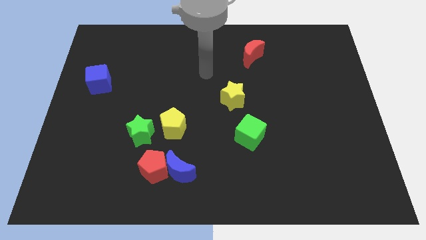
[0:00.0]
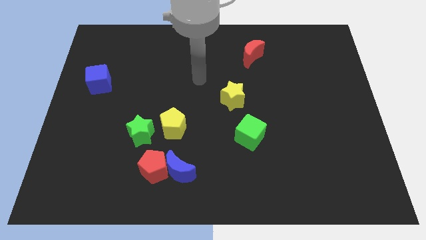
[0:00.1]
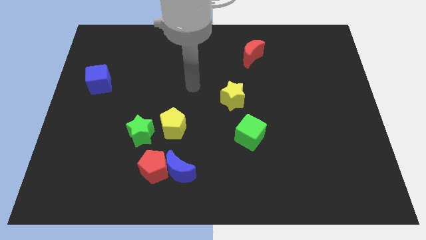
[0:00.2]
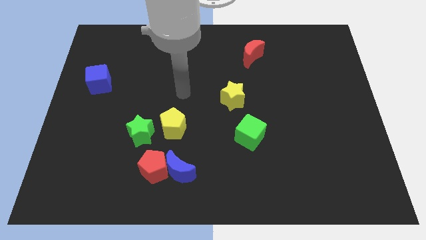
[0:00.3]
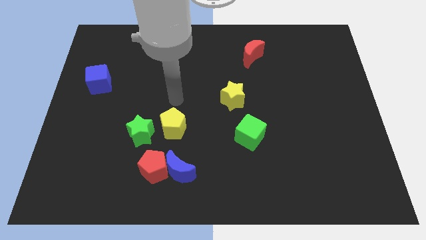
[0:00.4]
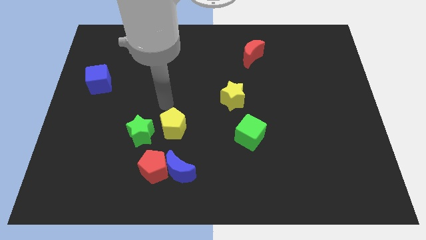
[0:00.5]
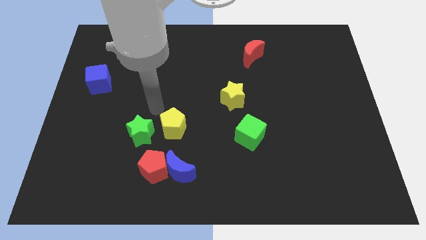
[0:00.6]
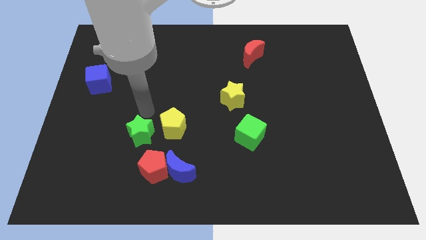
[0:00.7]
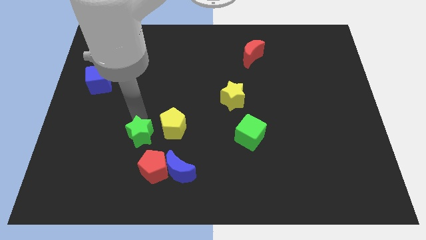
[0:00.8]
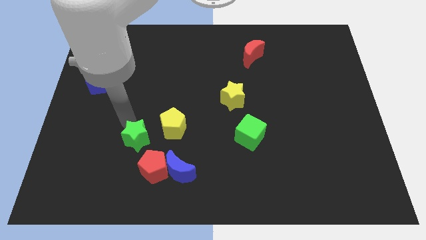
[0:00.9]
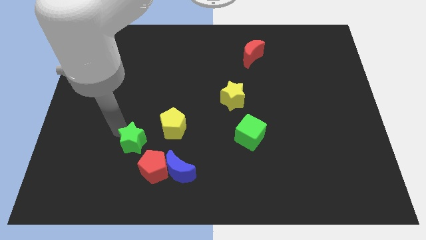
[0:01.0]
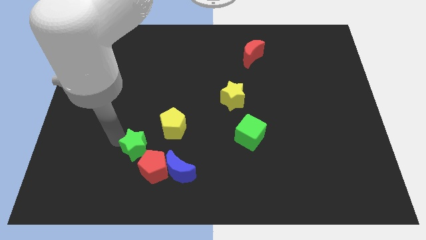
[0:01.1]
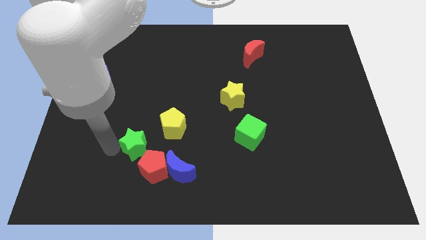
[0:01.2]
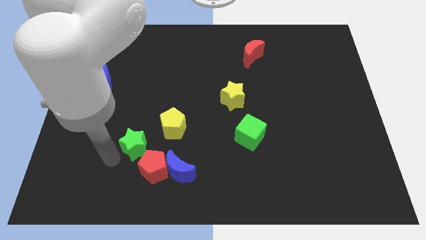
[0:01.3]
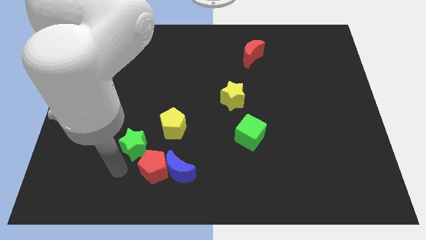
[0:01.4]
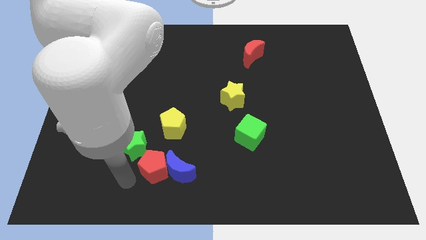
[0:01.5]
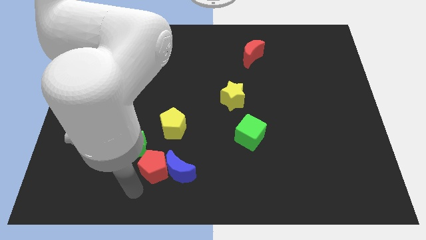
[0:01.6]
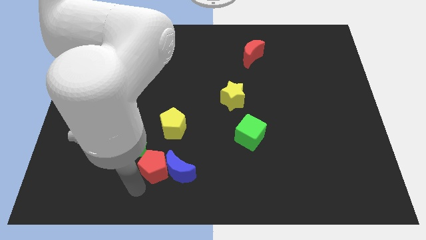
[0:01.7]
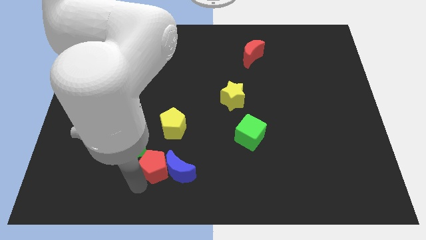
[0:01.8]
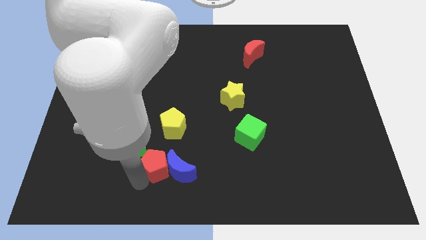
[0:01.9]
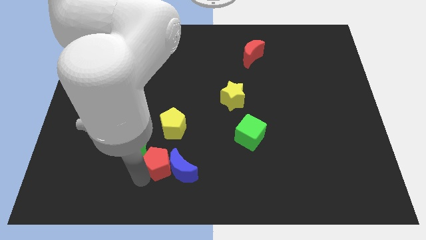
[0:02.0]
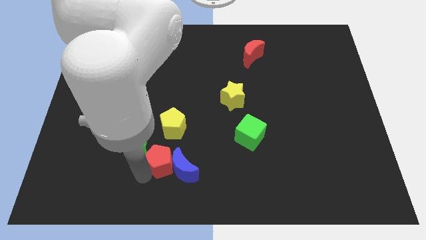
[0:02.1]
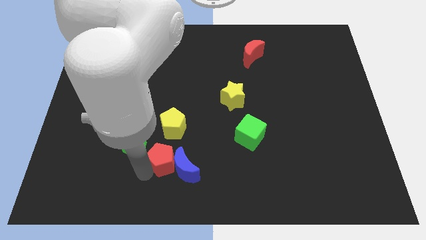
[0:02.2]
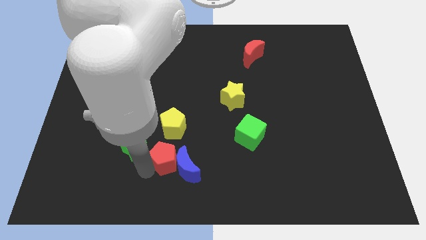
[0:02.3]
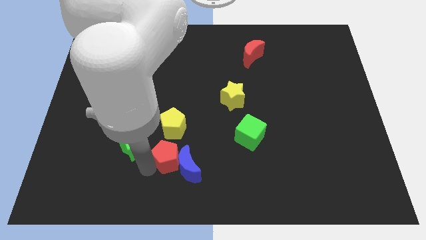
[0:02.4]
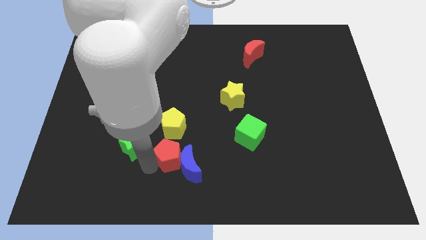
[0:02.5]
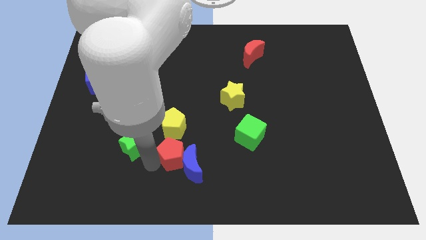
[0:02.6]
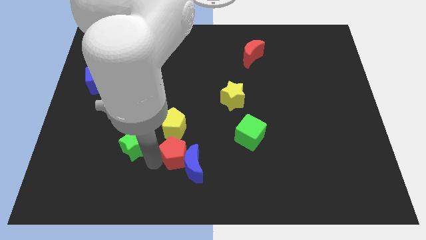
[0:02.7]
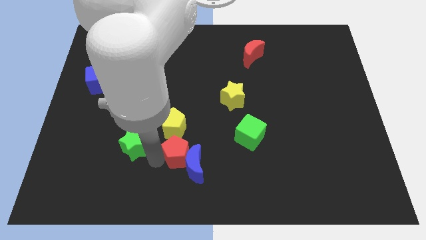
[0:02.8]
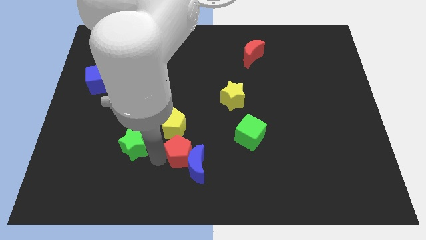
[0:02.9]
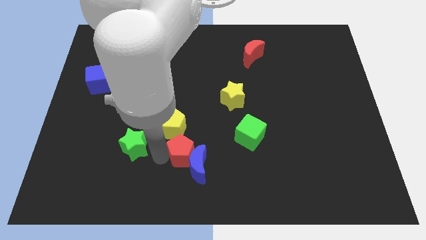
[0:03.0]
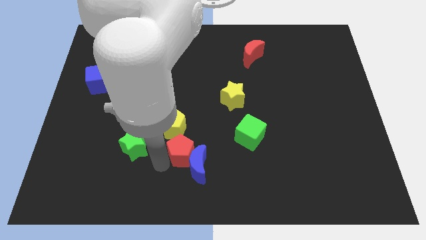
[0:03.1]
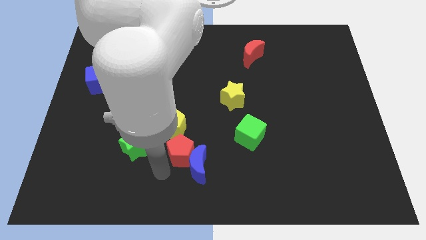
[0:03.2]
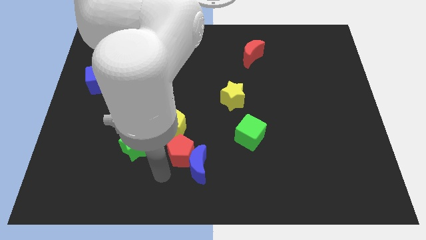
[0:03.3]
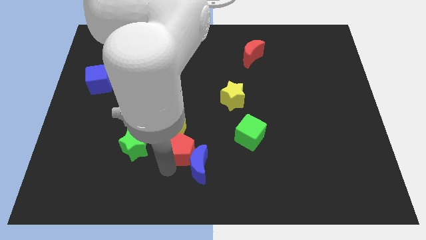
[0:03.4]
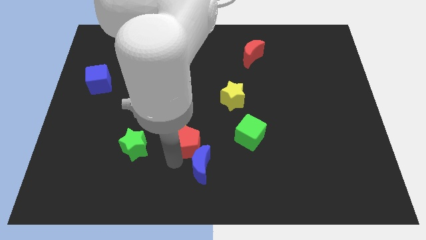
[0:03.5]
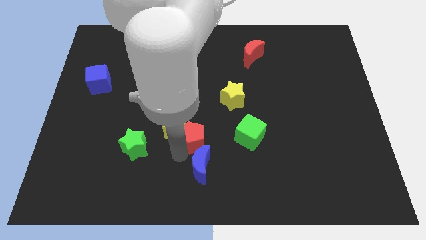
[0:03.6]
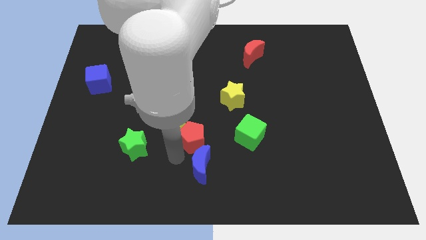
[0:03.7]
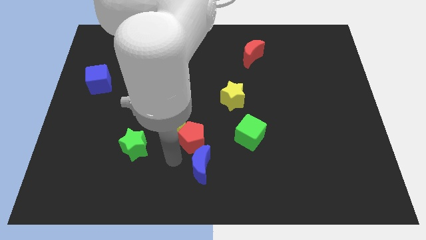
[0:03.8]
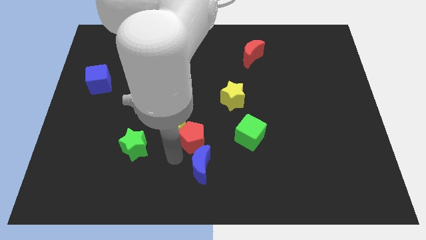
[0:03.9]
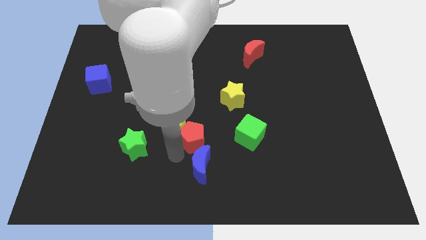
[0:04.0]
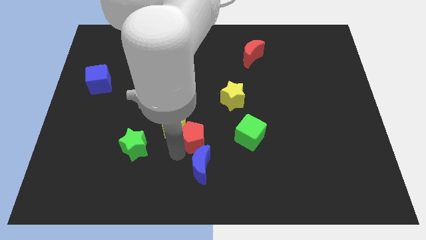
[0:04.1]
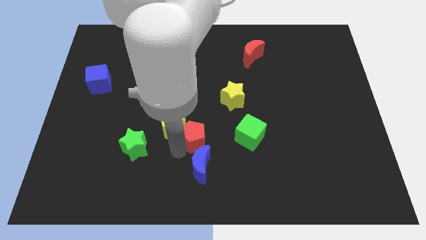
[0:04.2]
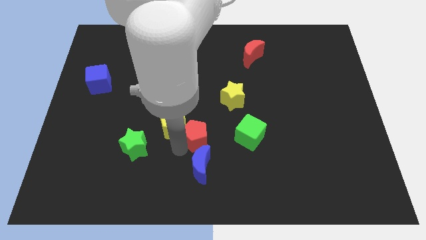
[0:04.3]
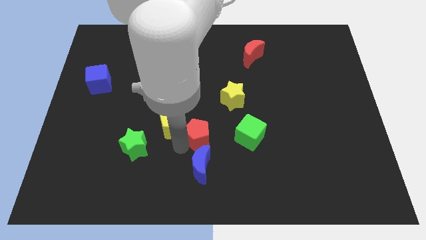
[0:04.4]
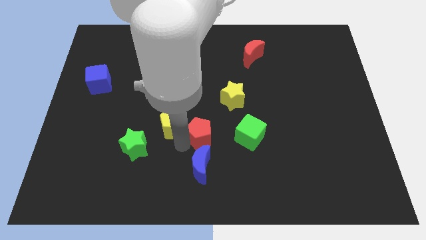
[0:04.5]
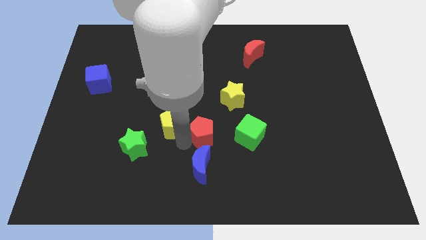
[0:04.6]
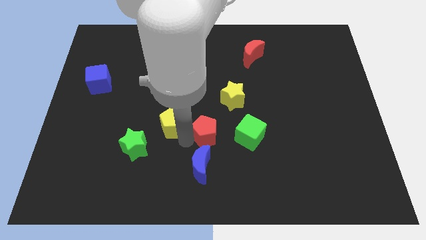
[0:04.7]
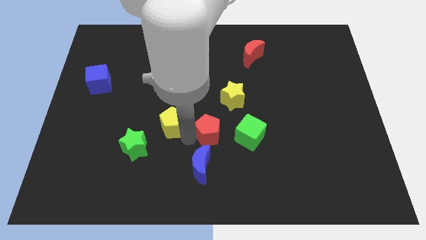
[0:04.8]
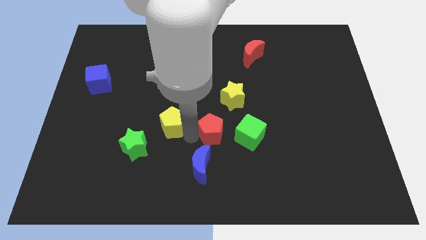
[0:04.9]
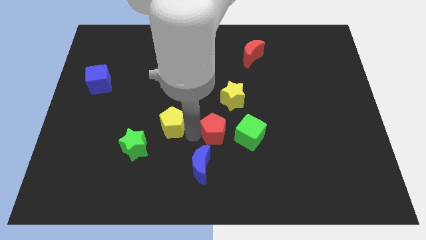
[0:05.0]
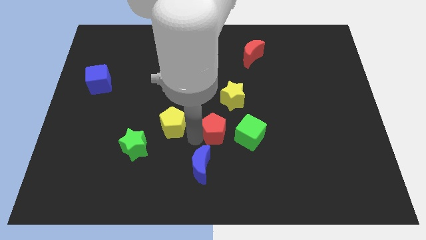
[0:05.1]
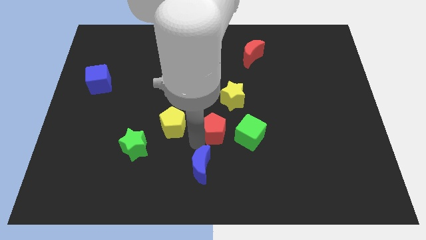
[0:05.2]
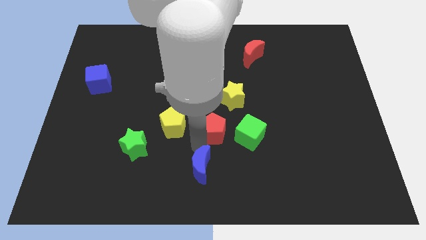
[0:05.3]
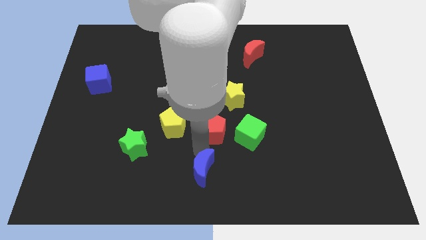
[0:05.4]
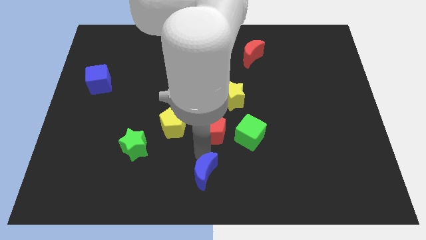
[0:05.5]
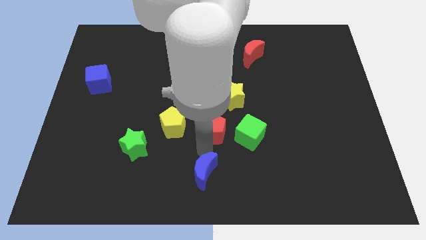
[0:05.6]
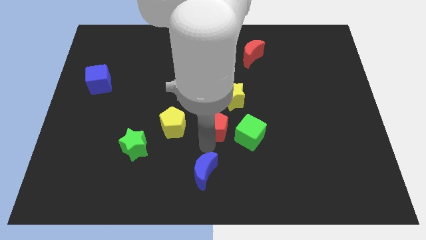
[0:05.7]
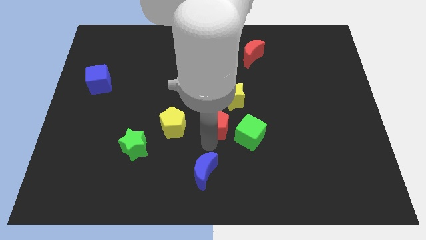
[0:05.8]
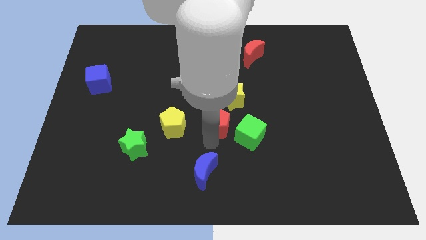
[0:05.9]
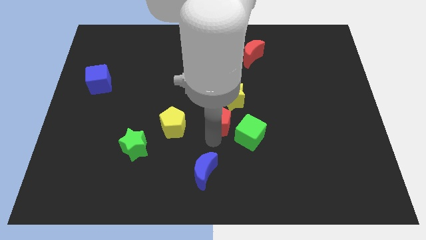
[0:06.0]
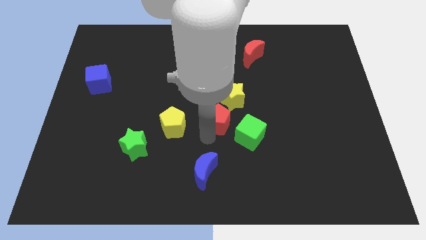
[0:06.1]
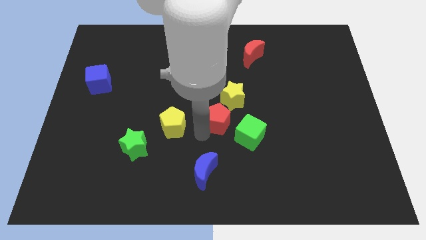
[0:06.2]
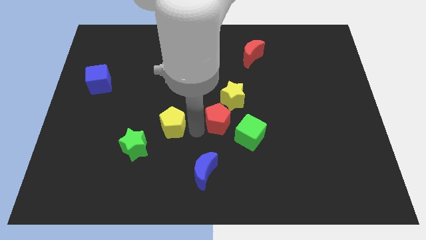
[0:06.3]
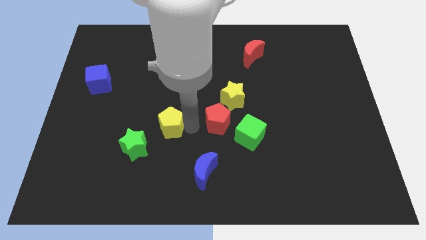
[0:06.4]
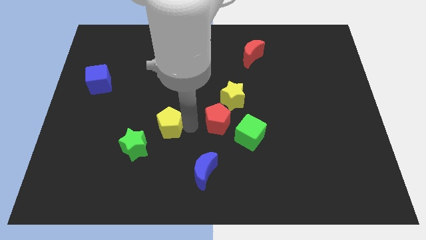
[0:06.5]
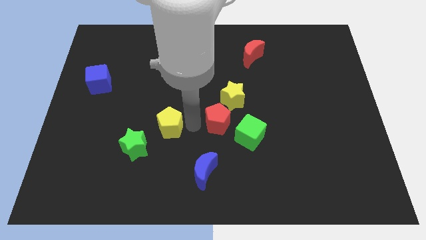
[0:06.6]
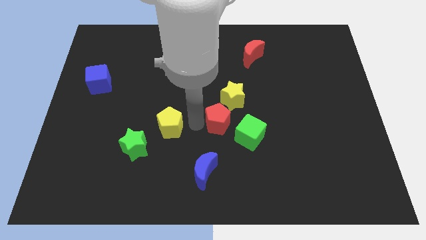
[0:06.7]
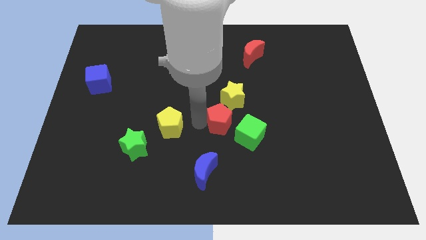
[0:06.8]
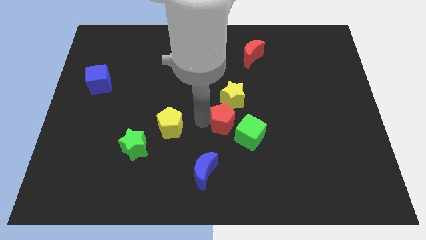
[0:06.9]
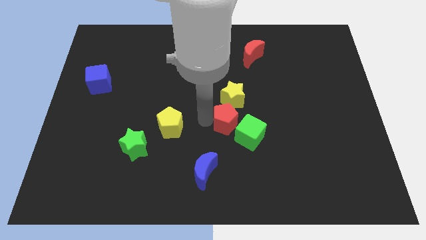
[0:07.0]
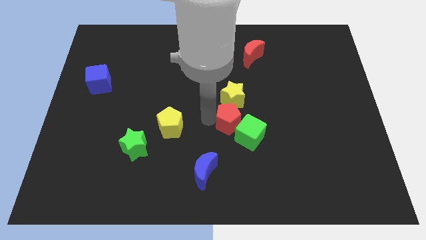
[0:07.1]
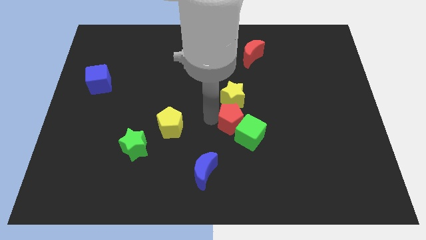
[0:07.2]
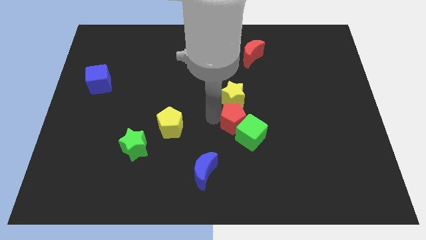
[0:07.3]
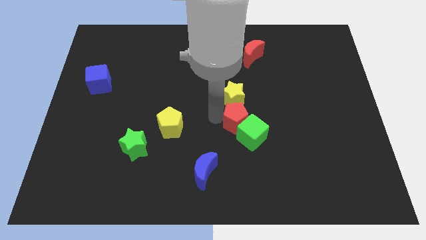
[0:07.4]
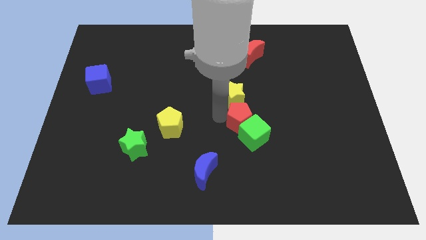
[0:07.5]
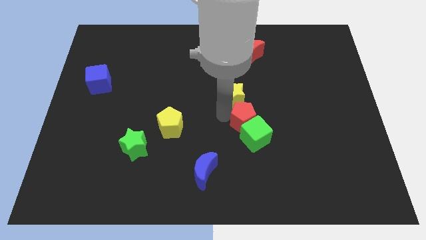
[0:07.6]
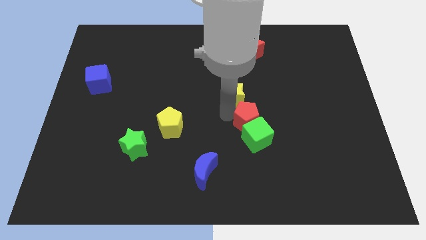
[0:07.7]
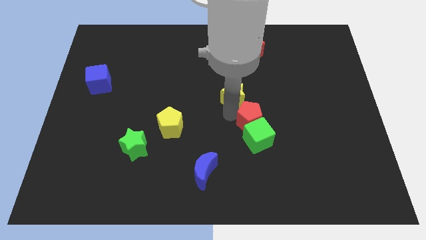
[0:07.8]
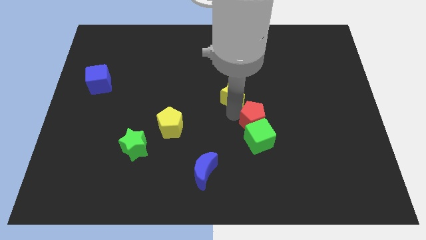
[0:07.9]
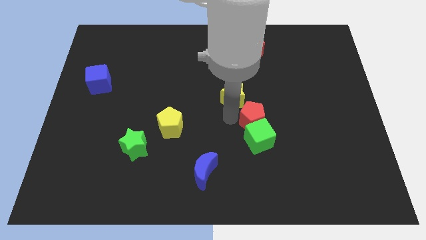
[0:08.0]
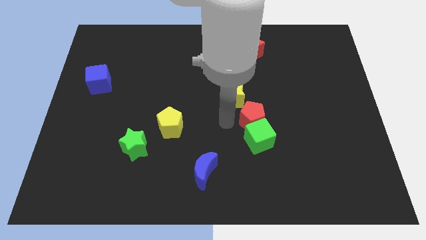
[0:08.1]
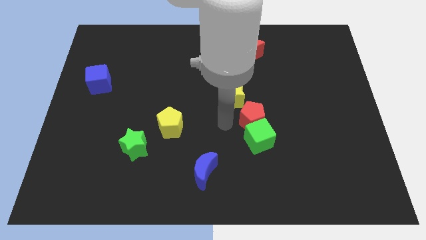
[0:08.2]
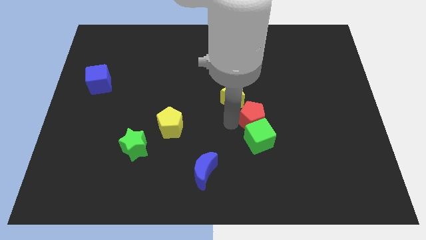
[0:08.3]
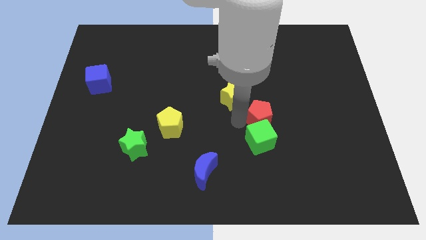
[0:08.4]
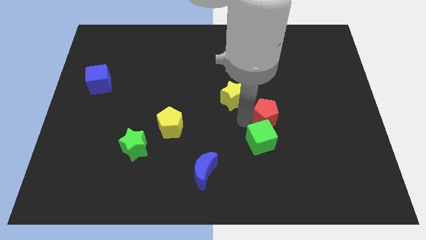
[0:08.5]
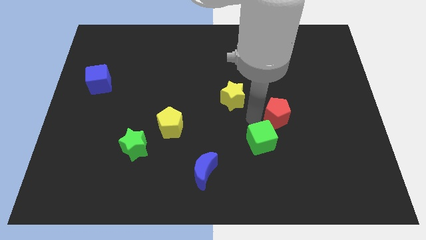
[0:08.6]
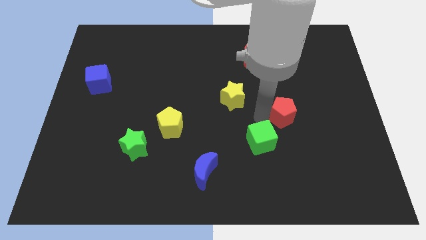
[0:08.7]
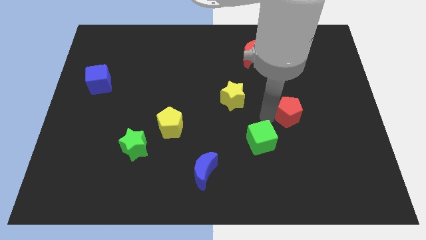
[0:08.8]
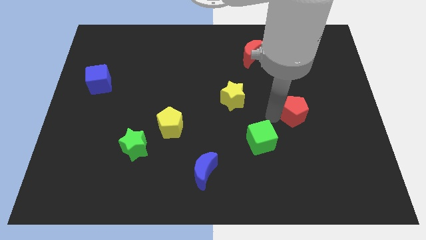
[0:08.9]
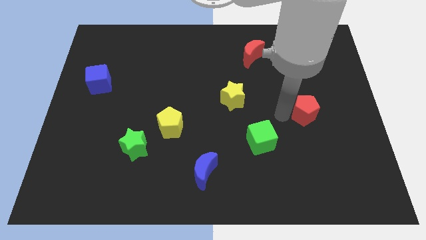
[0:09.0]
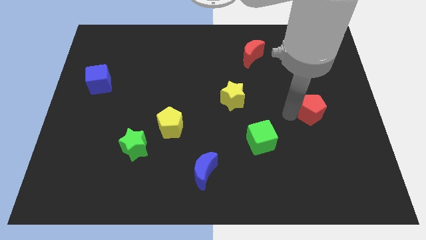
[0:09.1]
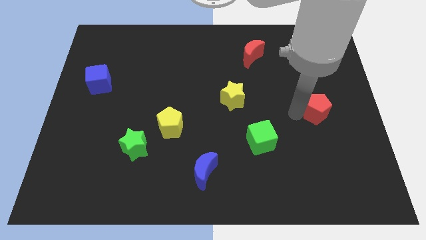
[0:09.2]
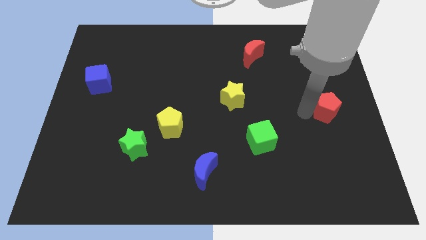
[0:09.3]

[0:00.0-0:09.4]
slide the red pentagon to the right side of the board
